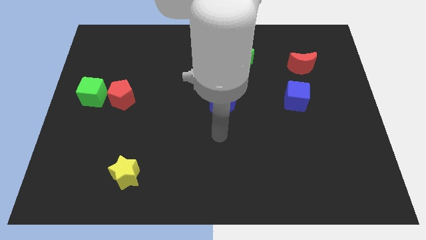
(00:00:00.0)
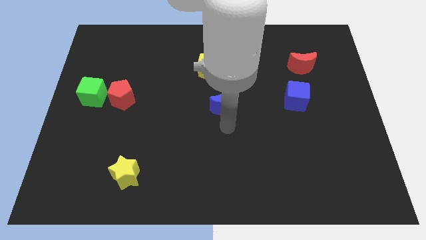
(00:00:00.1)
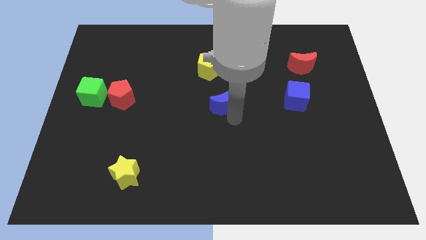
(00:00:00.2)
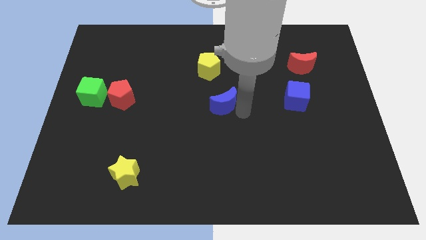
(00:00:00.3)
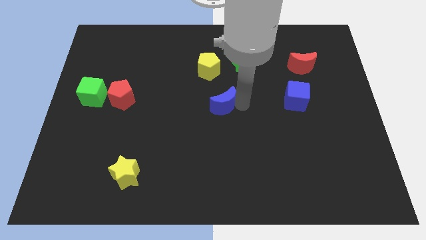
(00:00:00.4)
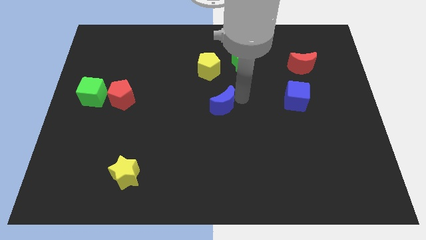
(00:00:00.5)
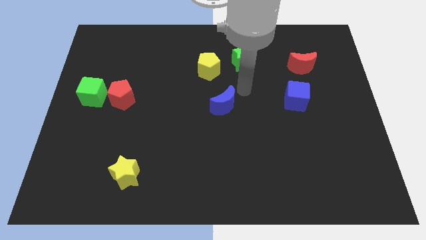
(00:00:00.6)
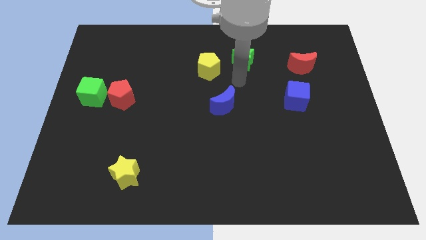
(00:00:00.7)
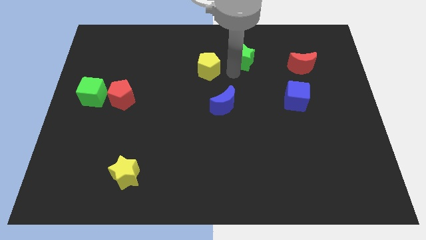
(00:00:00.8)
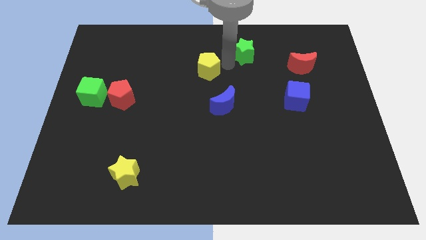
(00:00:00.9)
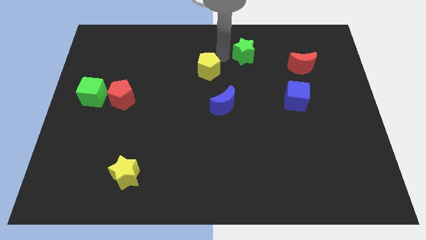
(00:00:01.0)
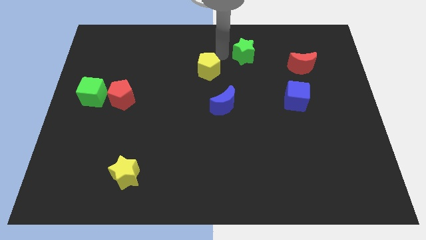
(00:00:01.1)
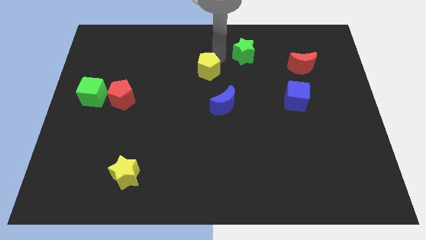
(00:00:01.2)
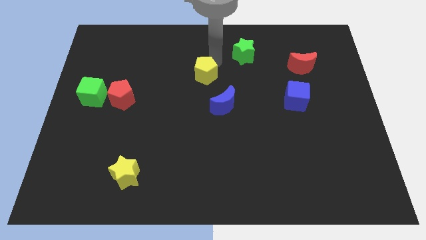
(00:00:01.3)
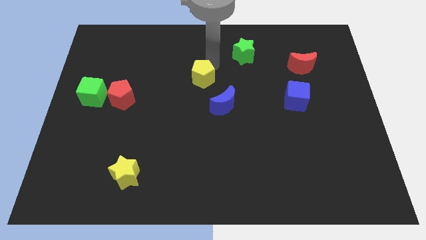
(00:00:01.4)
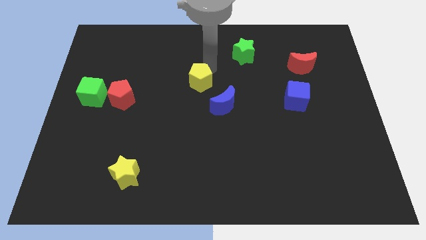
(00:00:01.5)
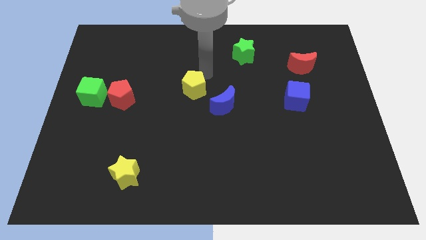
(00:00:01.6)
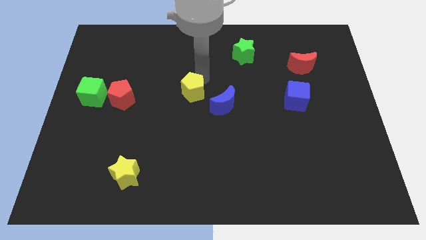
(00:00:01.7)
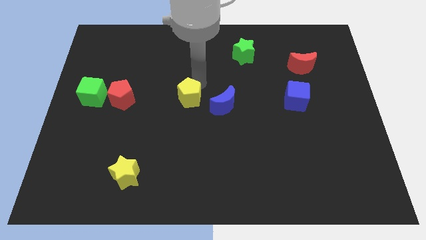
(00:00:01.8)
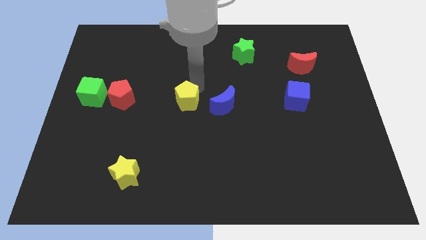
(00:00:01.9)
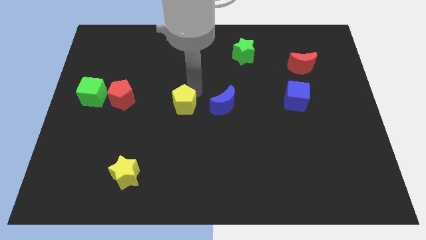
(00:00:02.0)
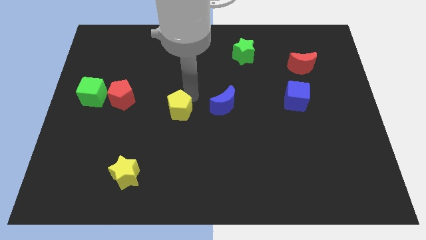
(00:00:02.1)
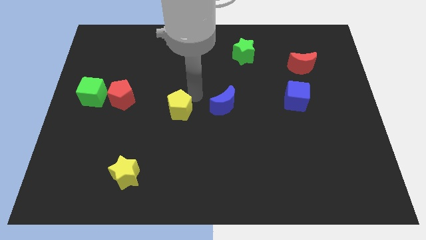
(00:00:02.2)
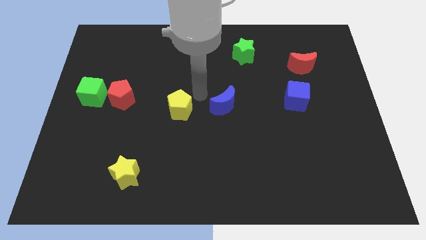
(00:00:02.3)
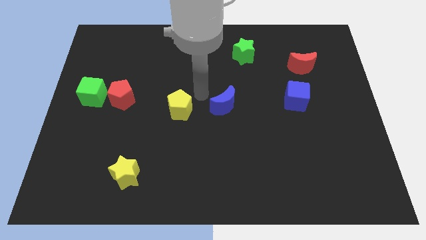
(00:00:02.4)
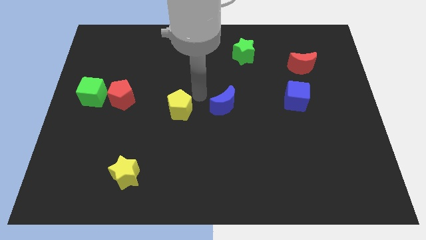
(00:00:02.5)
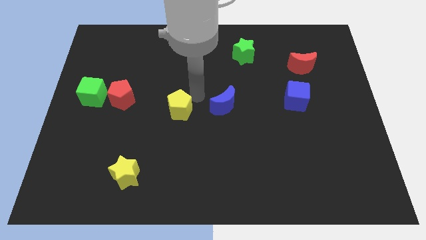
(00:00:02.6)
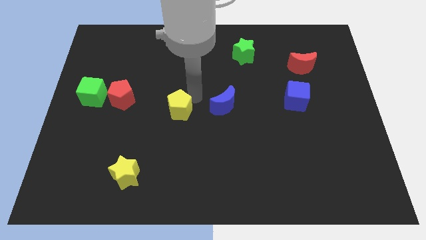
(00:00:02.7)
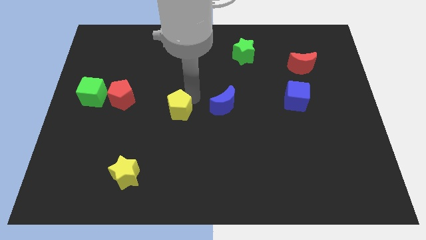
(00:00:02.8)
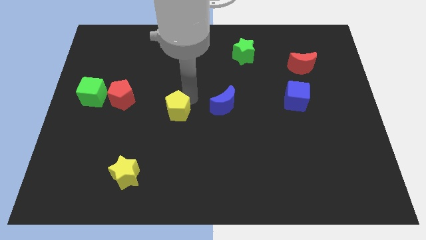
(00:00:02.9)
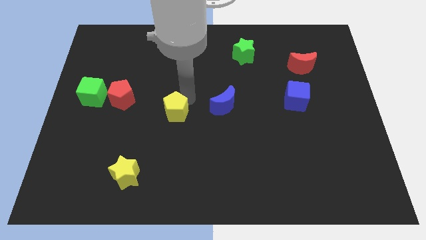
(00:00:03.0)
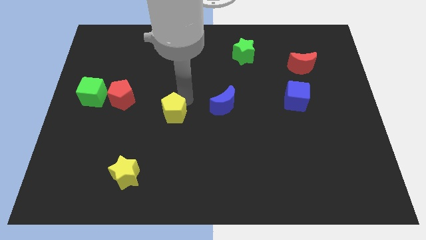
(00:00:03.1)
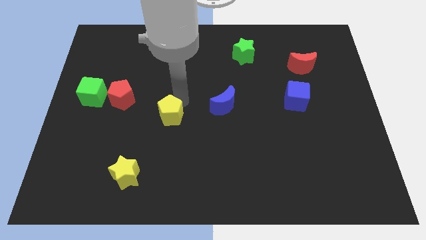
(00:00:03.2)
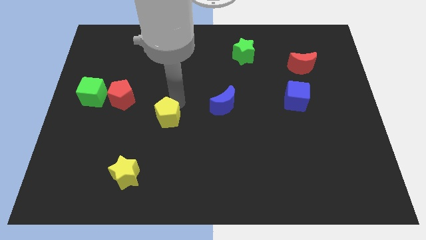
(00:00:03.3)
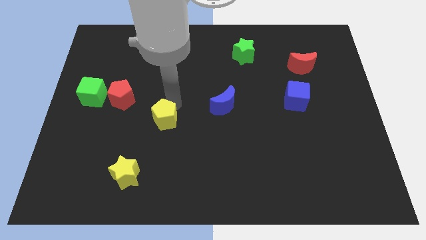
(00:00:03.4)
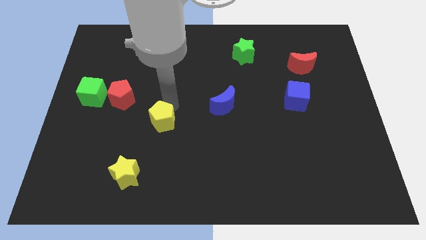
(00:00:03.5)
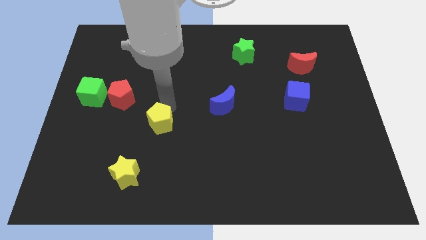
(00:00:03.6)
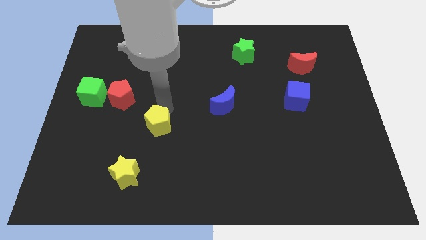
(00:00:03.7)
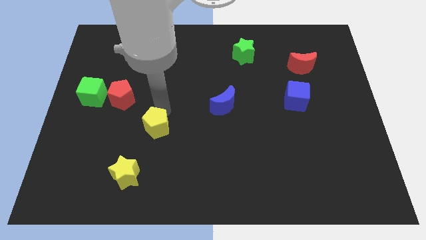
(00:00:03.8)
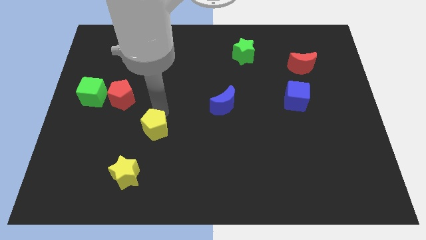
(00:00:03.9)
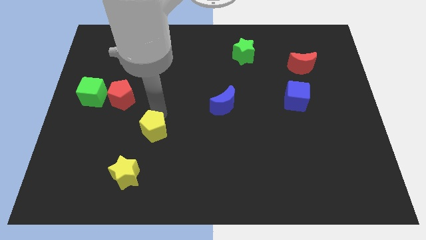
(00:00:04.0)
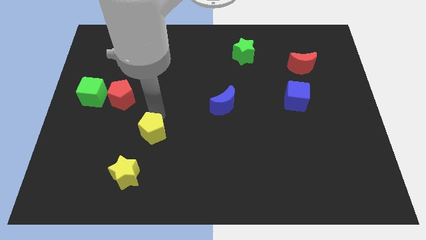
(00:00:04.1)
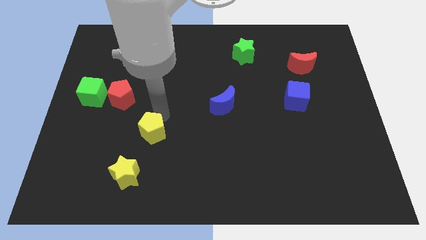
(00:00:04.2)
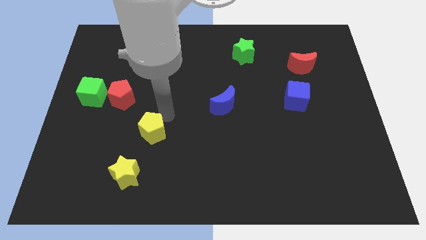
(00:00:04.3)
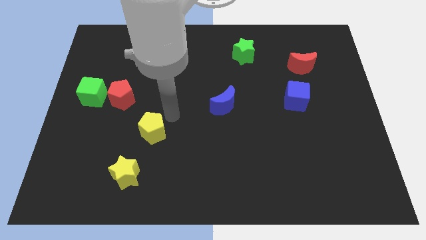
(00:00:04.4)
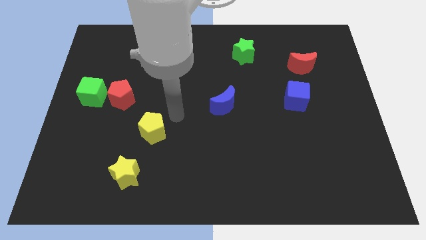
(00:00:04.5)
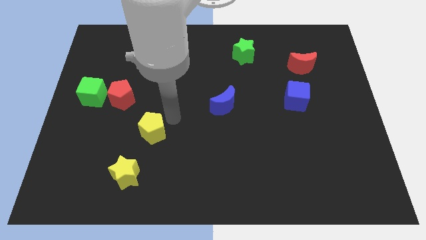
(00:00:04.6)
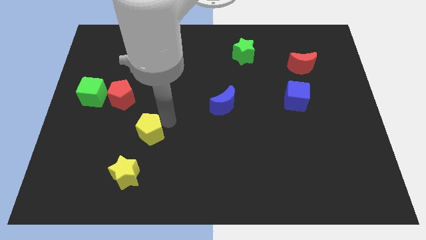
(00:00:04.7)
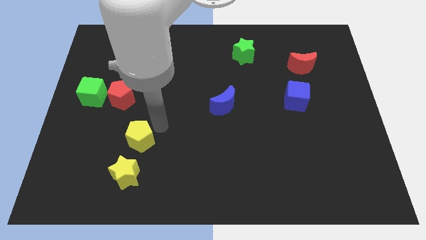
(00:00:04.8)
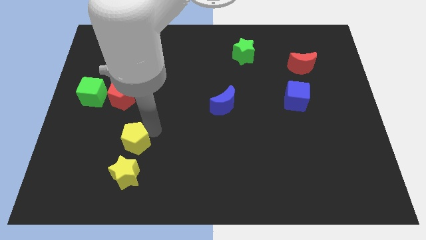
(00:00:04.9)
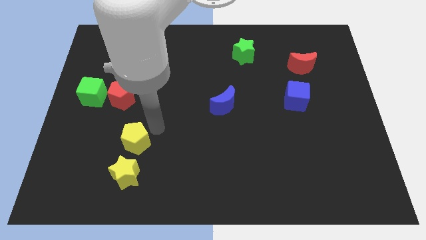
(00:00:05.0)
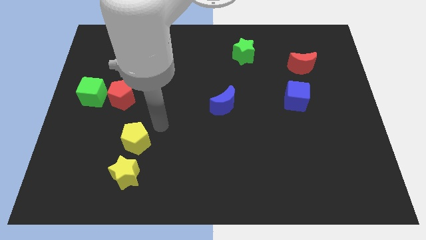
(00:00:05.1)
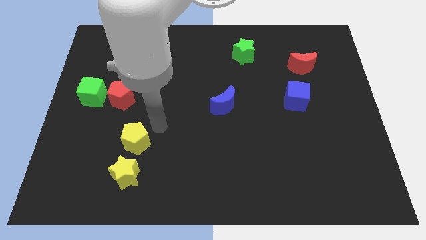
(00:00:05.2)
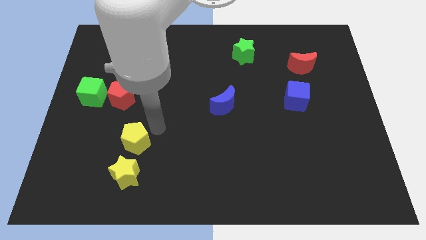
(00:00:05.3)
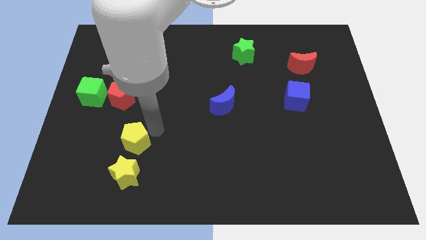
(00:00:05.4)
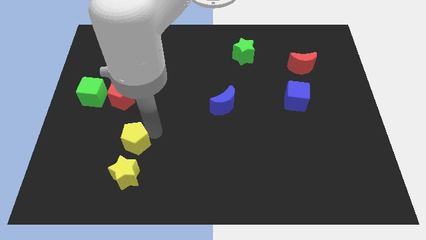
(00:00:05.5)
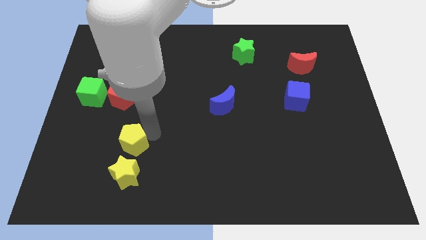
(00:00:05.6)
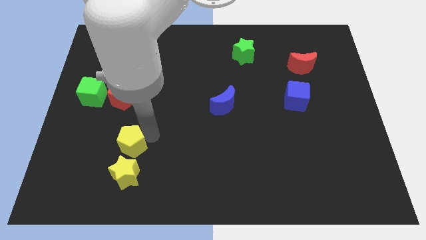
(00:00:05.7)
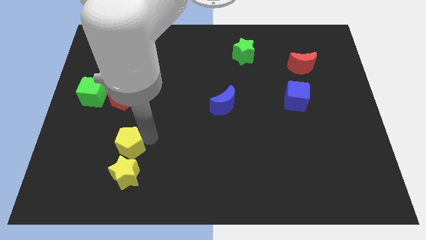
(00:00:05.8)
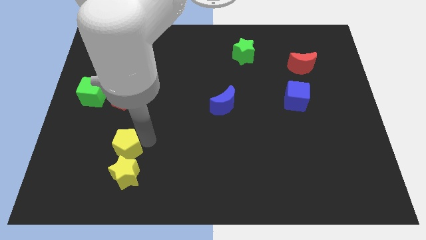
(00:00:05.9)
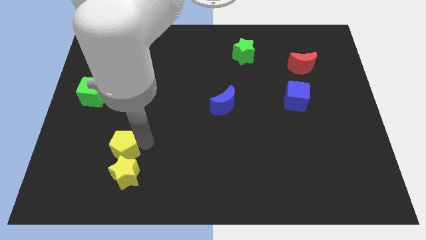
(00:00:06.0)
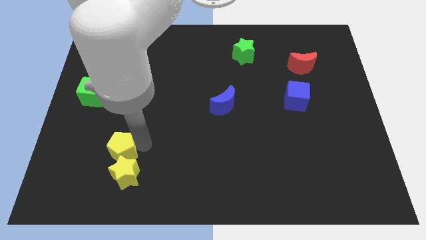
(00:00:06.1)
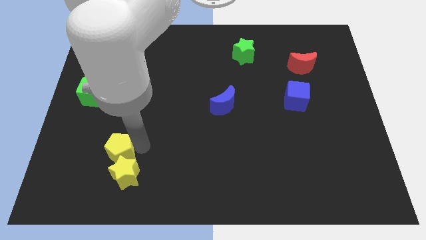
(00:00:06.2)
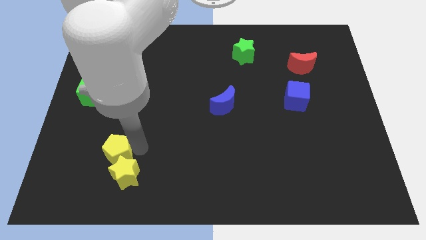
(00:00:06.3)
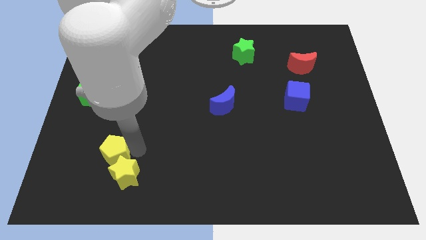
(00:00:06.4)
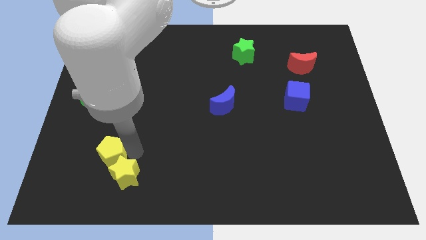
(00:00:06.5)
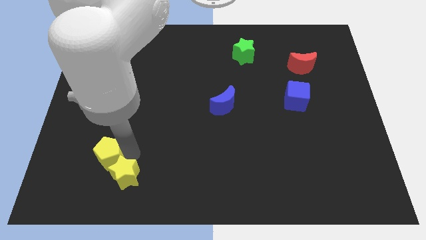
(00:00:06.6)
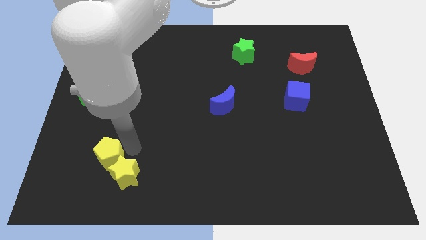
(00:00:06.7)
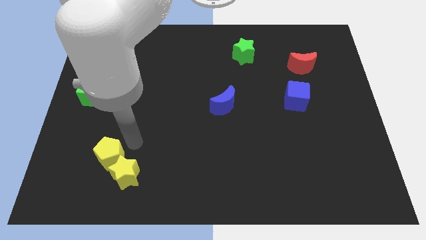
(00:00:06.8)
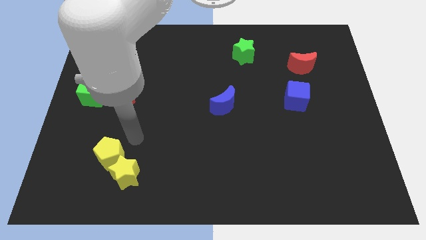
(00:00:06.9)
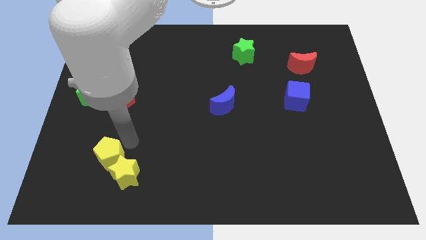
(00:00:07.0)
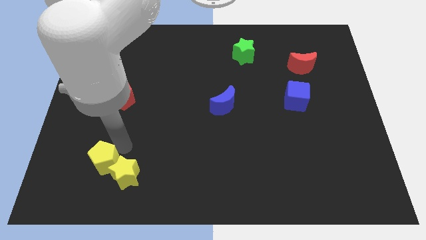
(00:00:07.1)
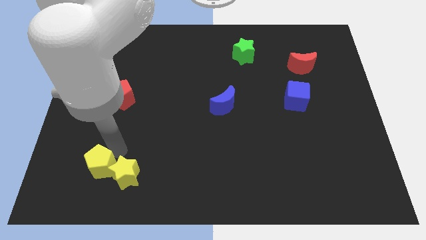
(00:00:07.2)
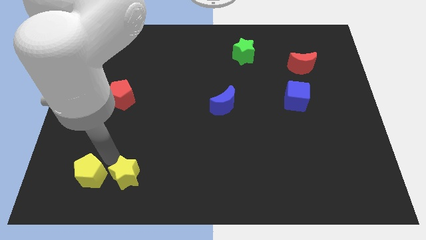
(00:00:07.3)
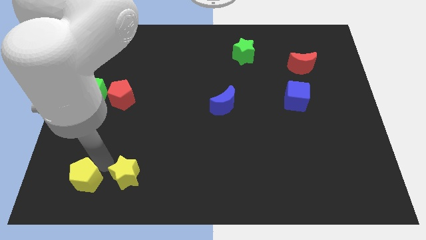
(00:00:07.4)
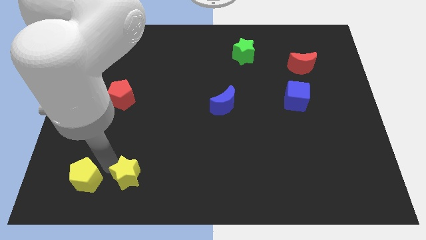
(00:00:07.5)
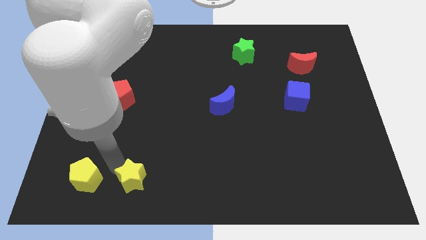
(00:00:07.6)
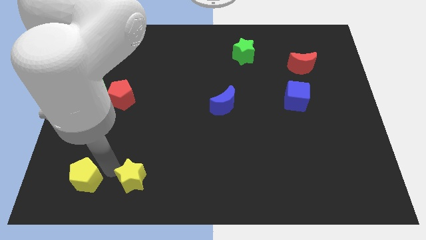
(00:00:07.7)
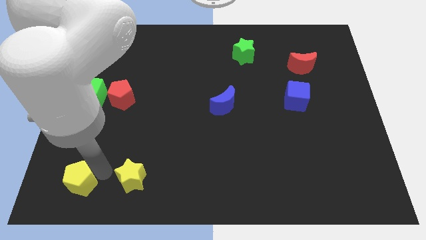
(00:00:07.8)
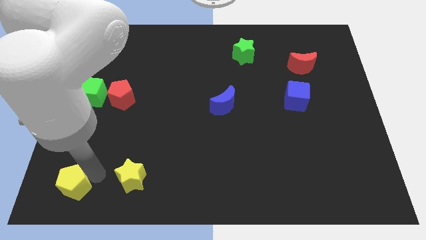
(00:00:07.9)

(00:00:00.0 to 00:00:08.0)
put the yellow pentagon to the bottom left
